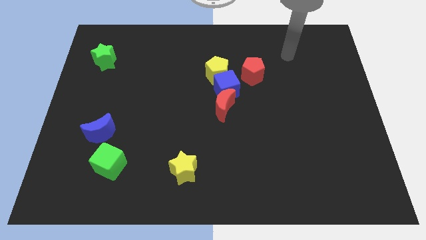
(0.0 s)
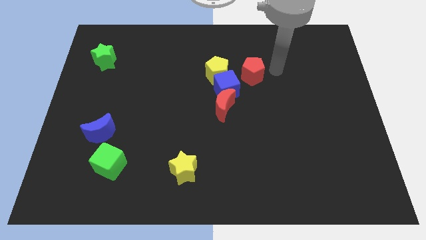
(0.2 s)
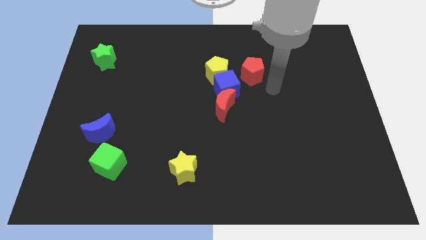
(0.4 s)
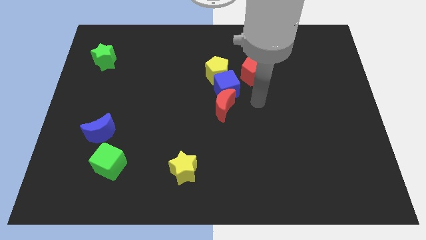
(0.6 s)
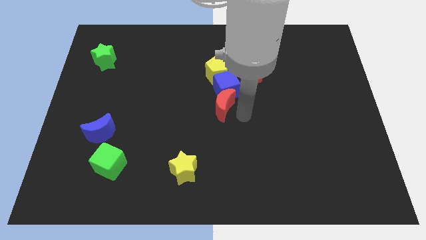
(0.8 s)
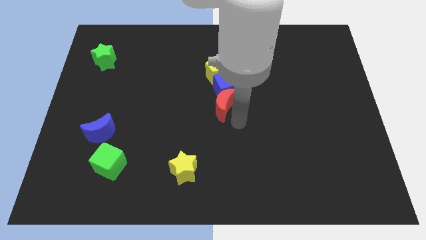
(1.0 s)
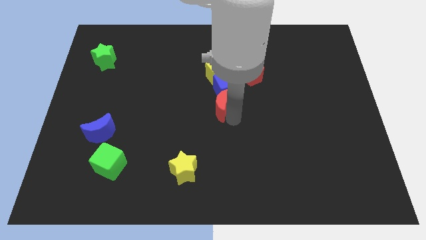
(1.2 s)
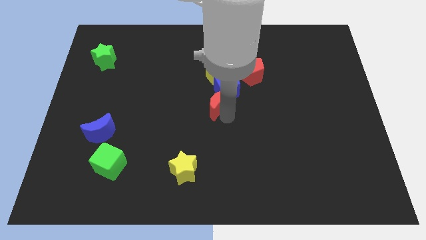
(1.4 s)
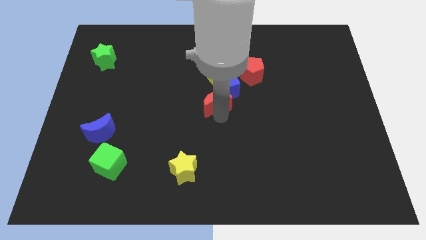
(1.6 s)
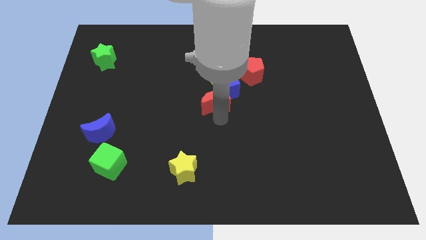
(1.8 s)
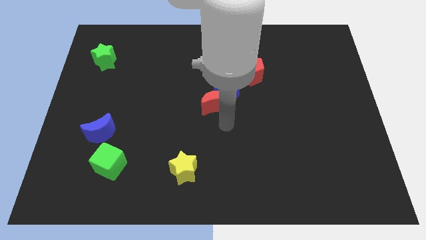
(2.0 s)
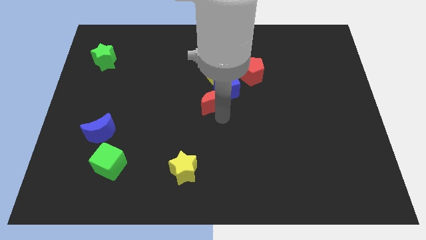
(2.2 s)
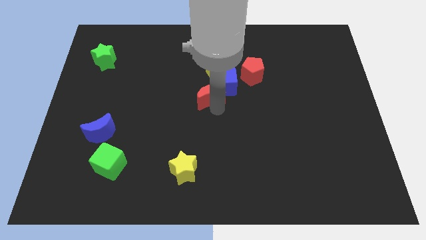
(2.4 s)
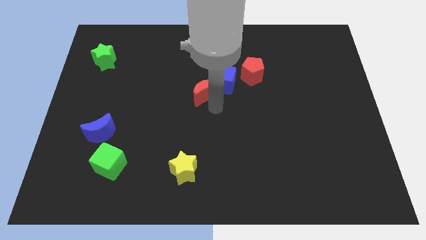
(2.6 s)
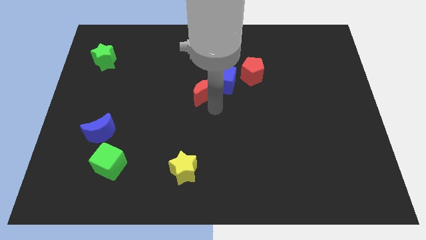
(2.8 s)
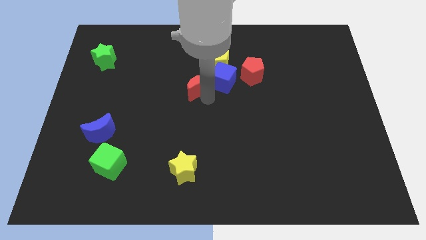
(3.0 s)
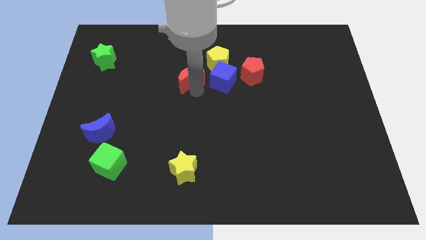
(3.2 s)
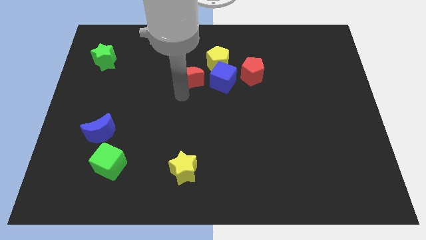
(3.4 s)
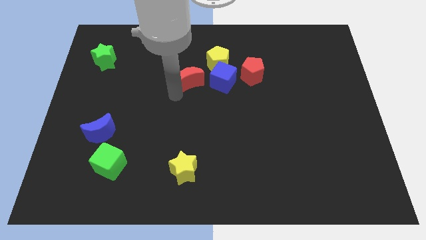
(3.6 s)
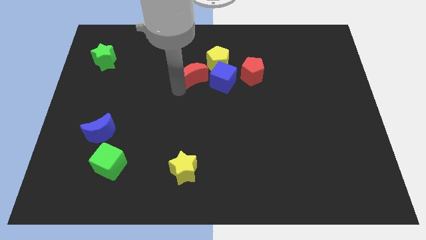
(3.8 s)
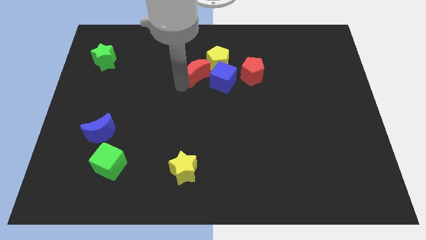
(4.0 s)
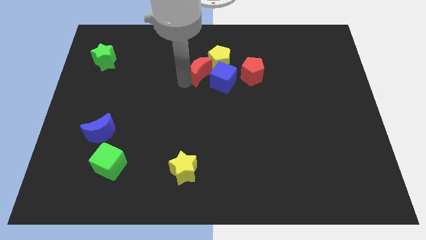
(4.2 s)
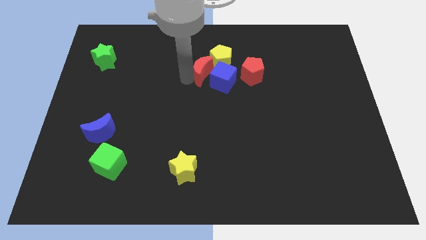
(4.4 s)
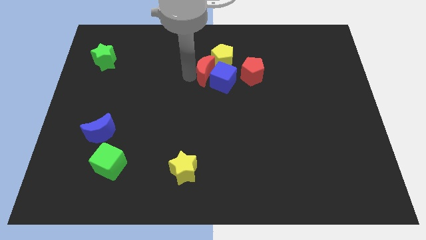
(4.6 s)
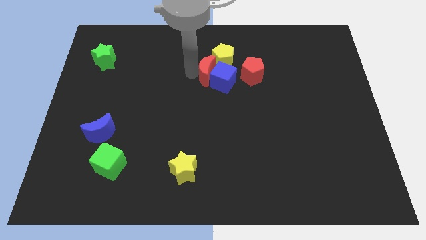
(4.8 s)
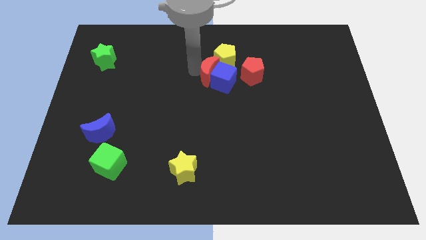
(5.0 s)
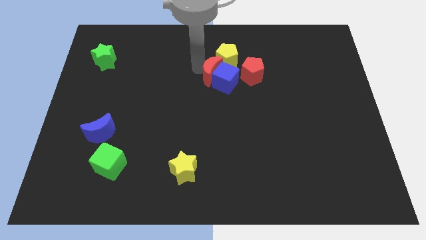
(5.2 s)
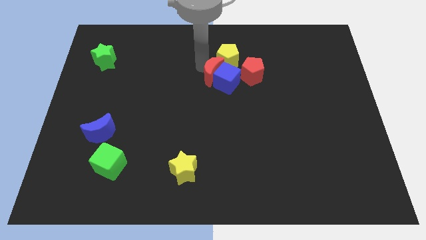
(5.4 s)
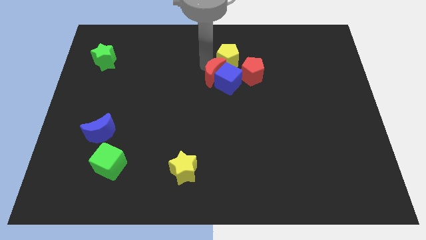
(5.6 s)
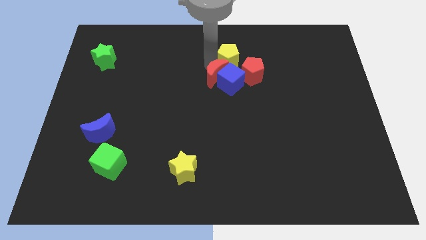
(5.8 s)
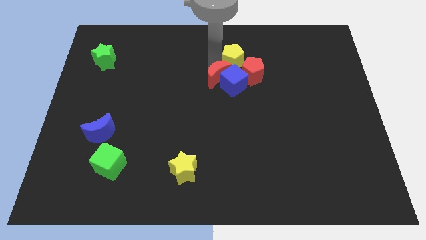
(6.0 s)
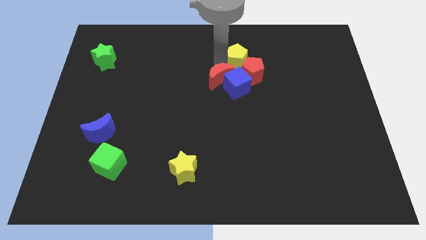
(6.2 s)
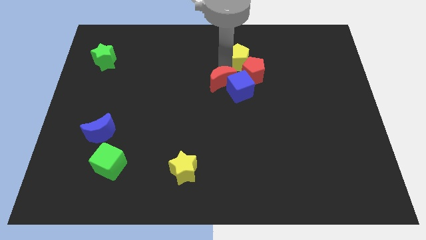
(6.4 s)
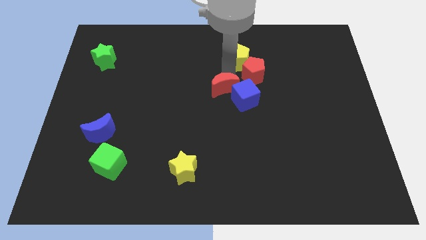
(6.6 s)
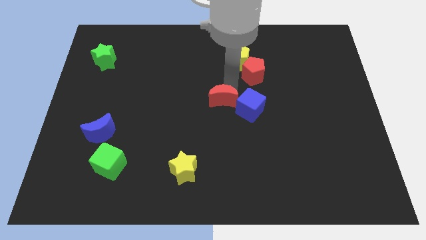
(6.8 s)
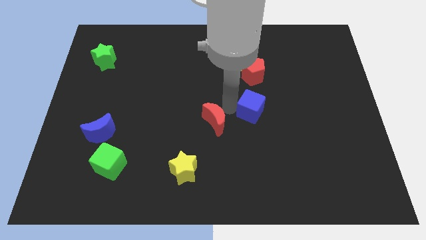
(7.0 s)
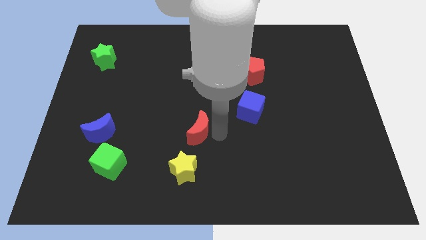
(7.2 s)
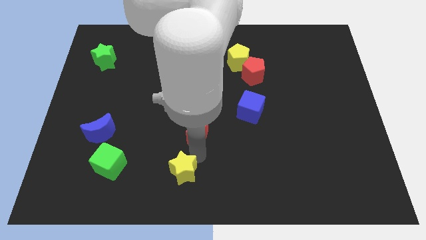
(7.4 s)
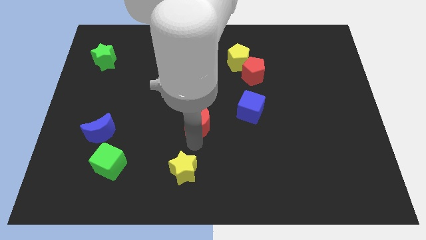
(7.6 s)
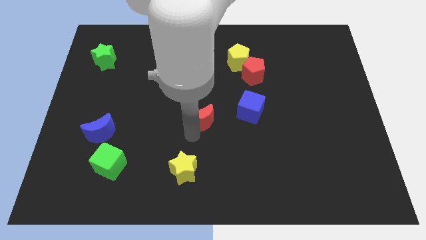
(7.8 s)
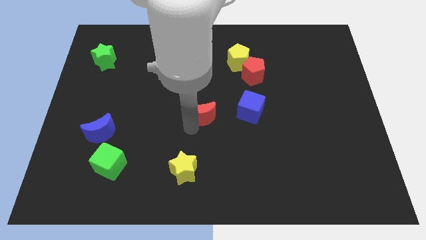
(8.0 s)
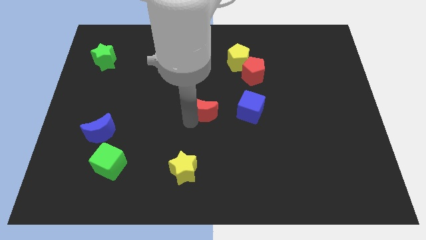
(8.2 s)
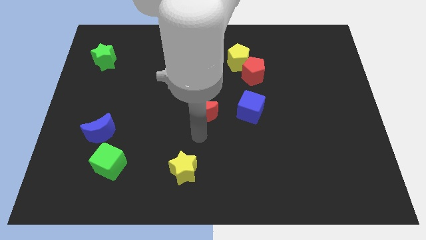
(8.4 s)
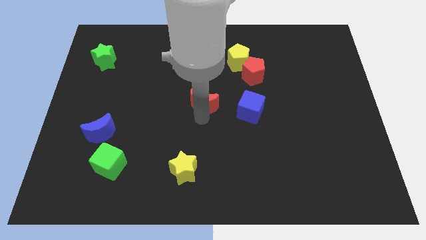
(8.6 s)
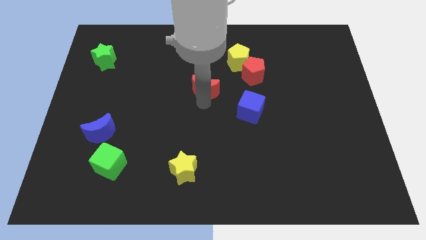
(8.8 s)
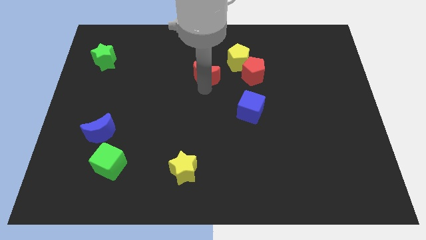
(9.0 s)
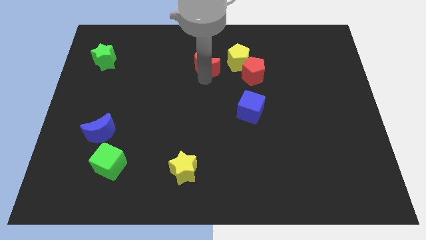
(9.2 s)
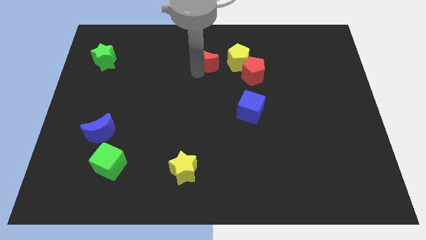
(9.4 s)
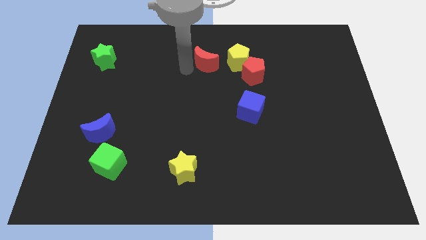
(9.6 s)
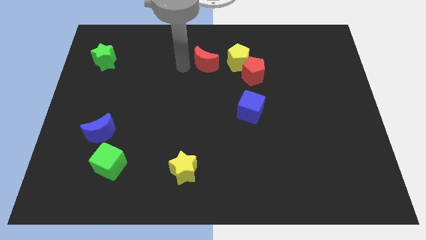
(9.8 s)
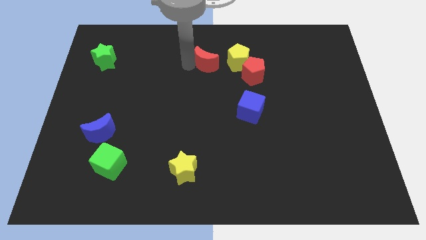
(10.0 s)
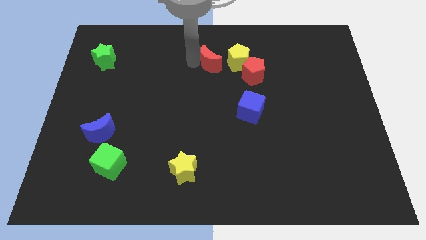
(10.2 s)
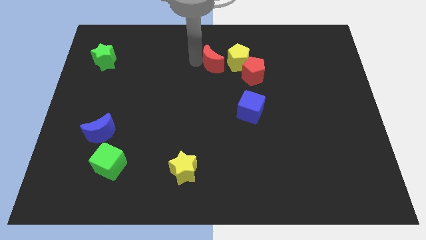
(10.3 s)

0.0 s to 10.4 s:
move the red moon to the top left of the red pentagon

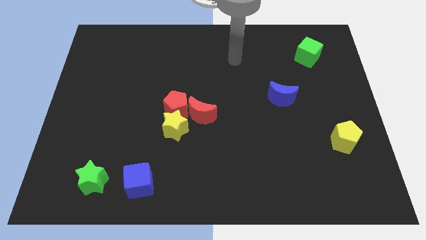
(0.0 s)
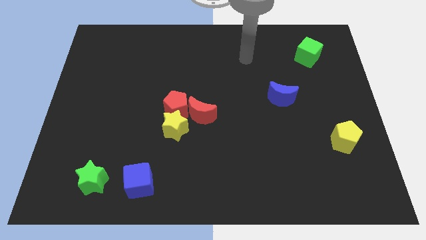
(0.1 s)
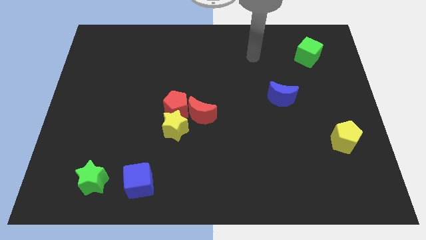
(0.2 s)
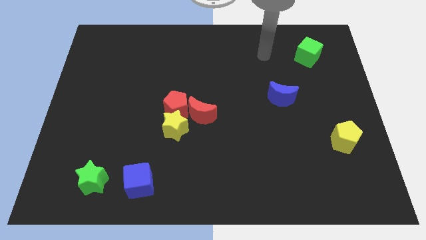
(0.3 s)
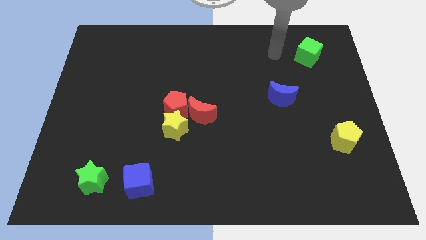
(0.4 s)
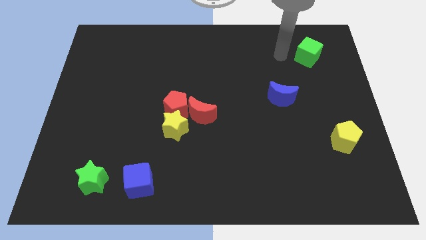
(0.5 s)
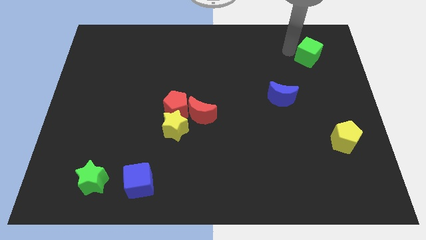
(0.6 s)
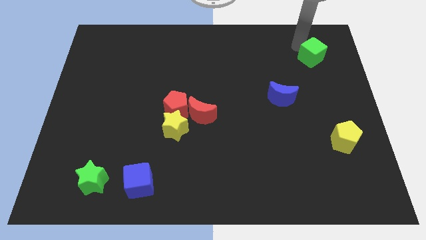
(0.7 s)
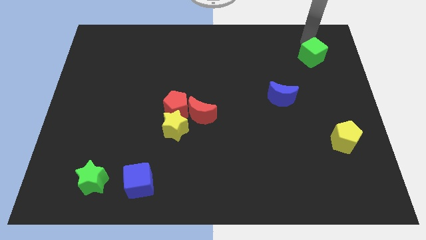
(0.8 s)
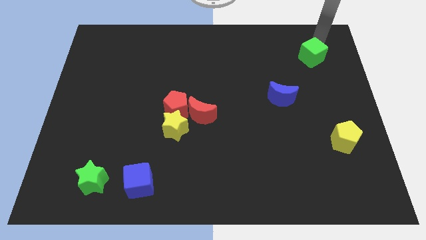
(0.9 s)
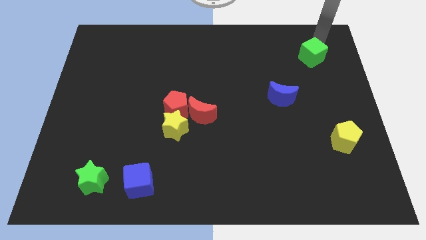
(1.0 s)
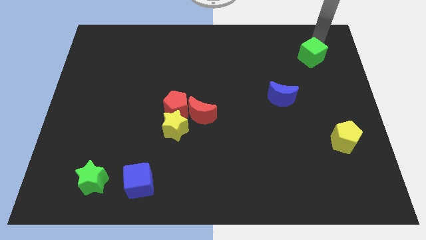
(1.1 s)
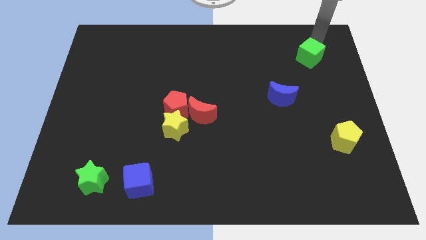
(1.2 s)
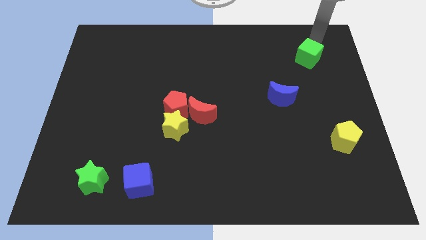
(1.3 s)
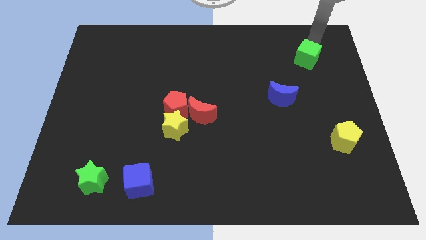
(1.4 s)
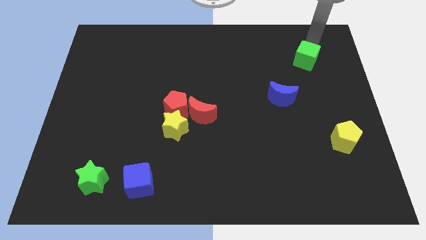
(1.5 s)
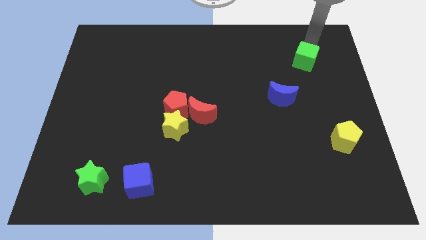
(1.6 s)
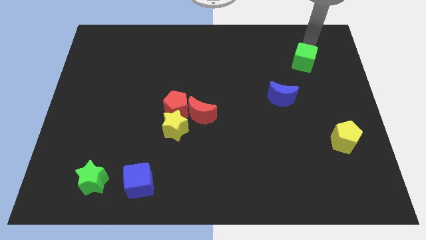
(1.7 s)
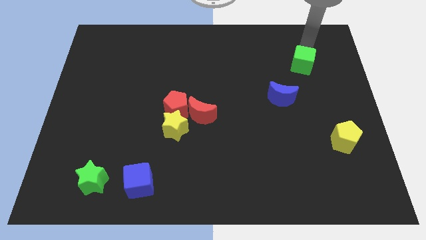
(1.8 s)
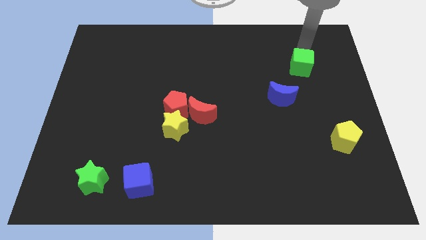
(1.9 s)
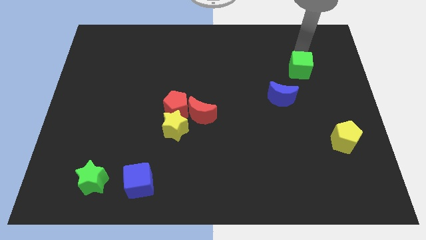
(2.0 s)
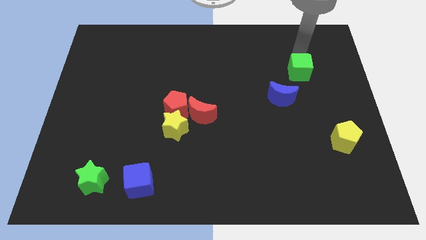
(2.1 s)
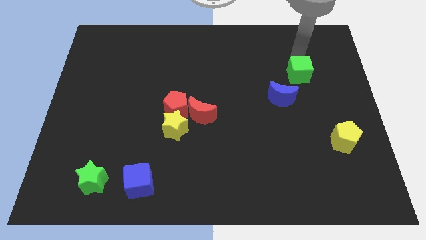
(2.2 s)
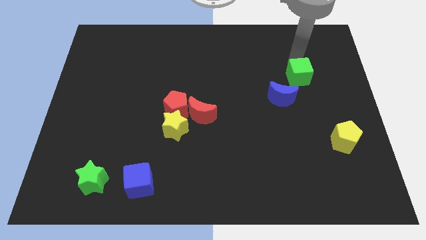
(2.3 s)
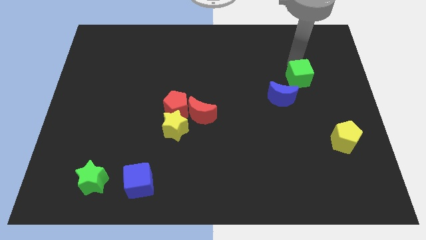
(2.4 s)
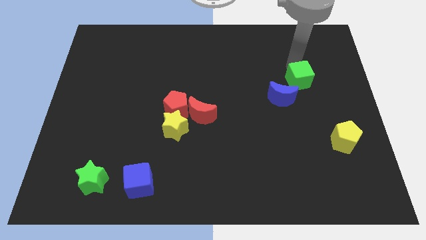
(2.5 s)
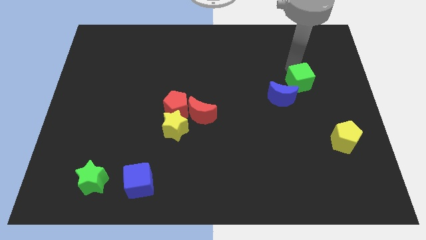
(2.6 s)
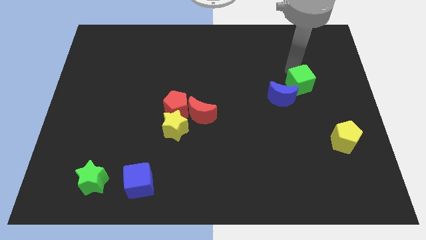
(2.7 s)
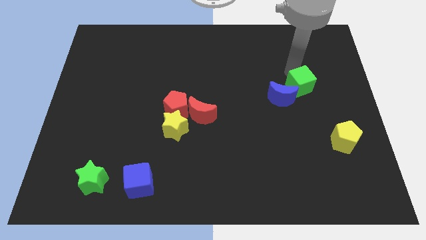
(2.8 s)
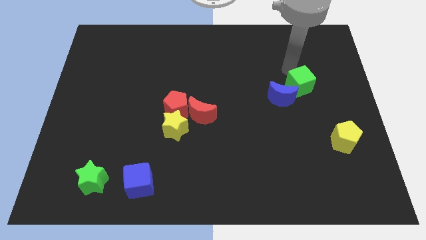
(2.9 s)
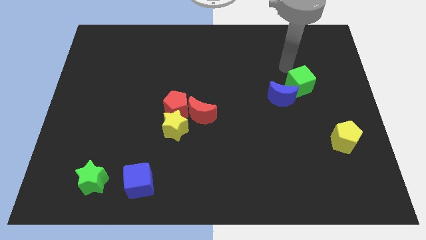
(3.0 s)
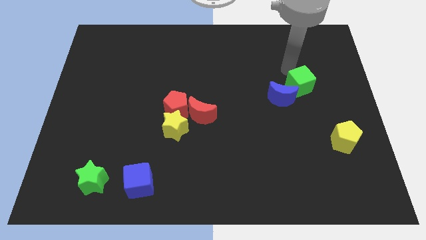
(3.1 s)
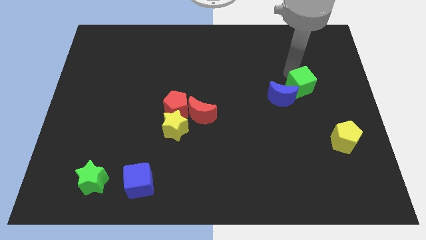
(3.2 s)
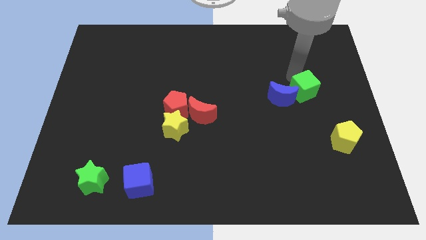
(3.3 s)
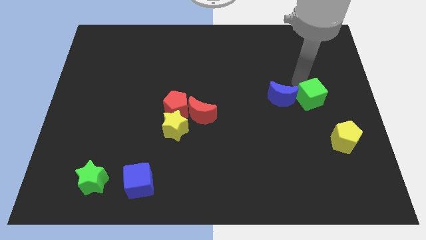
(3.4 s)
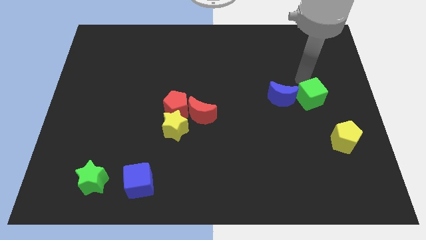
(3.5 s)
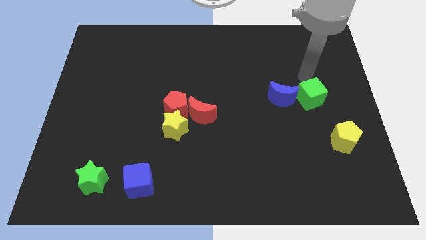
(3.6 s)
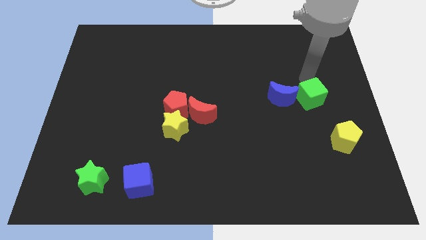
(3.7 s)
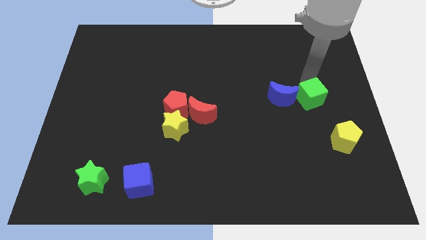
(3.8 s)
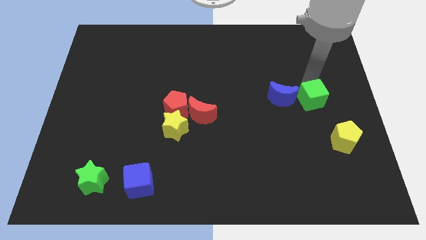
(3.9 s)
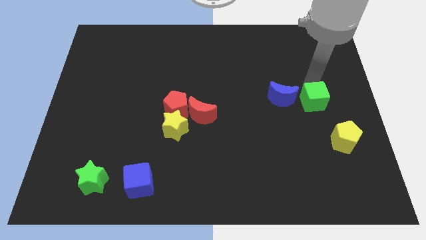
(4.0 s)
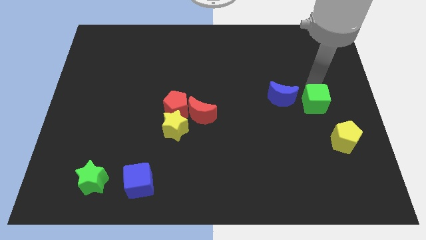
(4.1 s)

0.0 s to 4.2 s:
slide the green cube diagonally up and to the left of the yellow pentagon
